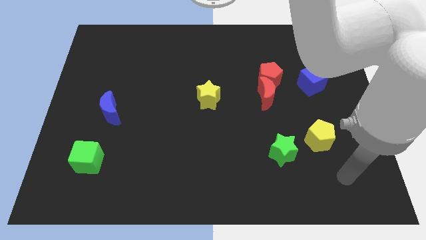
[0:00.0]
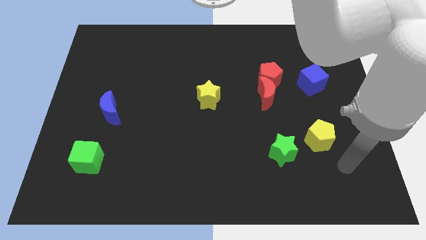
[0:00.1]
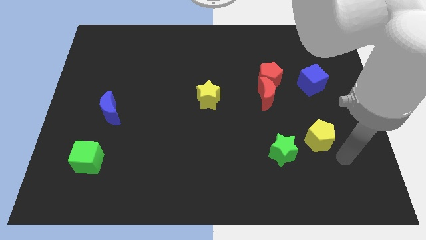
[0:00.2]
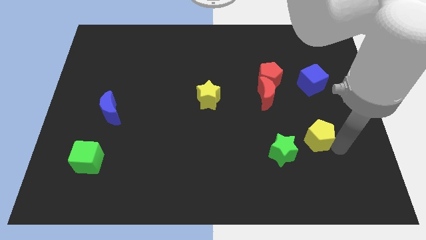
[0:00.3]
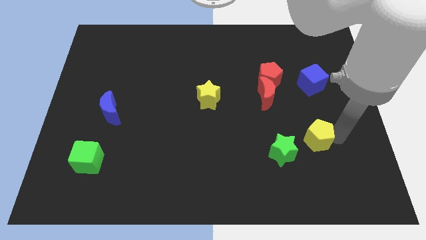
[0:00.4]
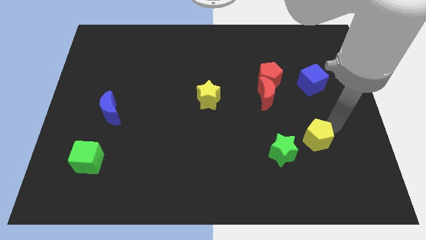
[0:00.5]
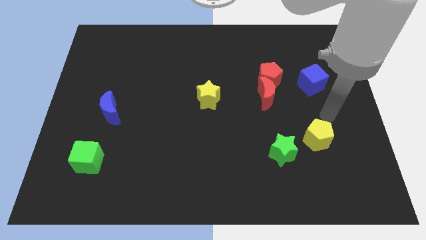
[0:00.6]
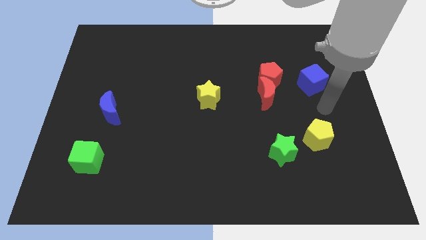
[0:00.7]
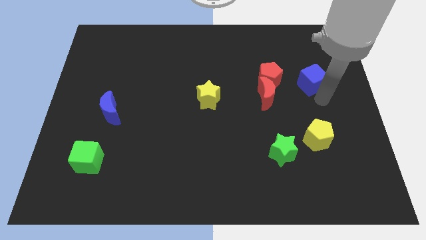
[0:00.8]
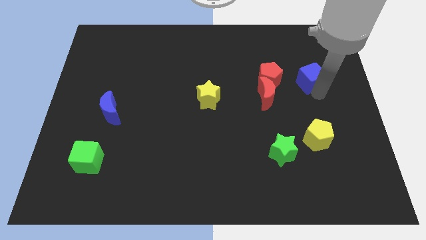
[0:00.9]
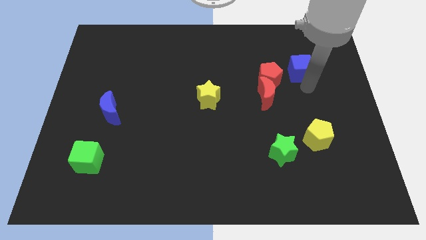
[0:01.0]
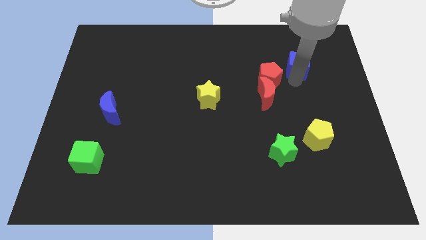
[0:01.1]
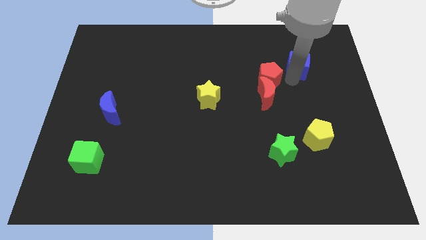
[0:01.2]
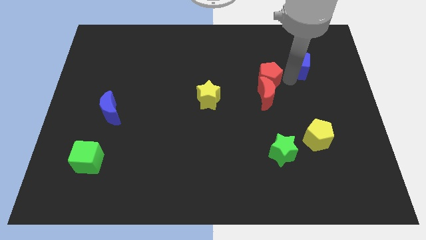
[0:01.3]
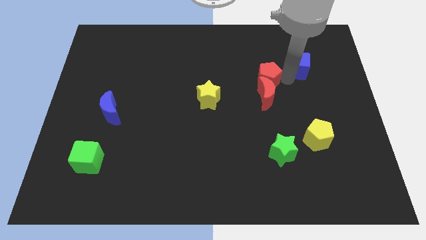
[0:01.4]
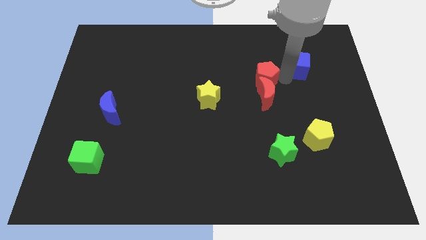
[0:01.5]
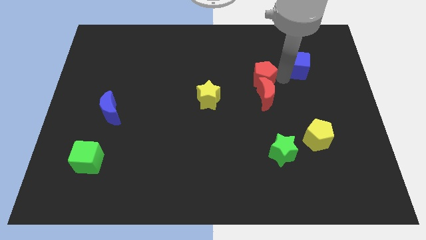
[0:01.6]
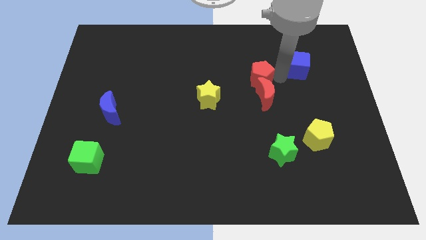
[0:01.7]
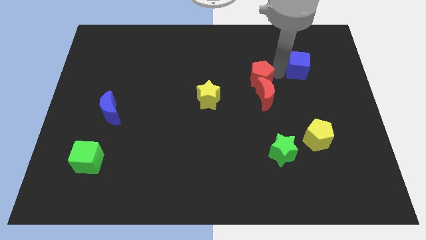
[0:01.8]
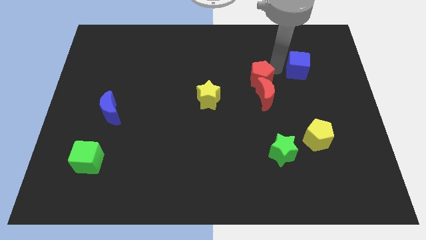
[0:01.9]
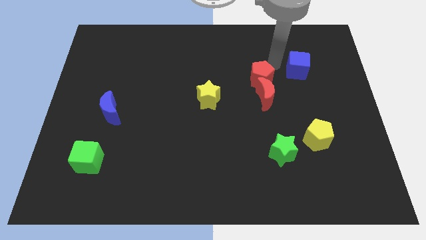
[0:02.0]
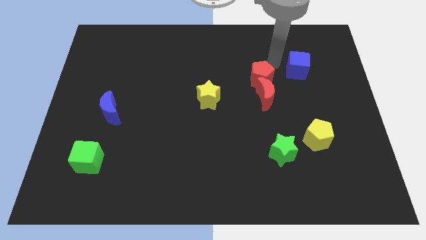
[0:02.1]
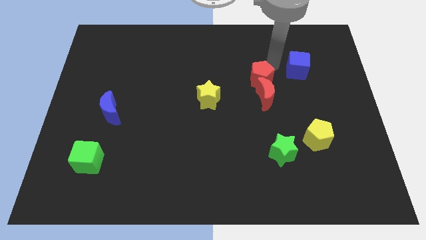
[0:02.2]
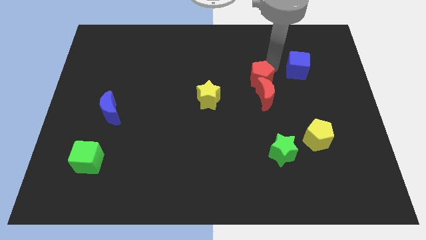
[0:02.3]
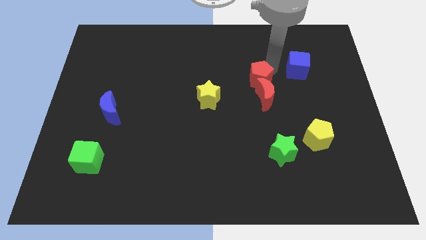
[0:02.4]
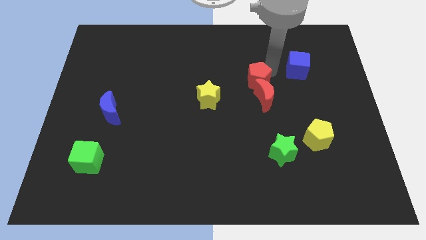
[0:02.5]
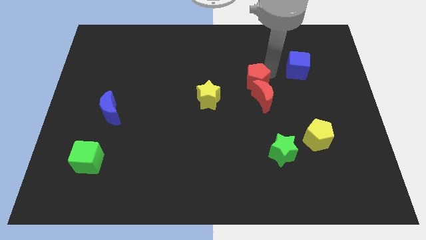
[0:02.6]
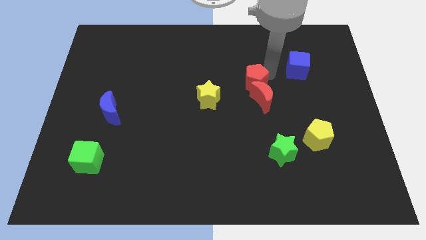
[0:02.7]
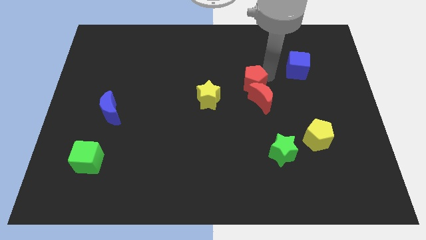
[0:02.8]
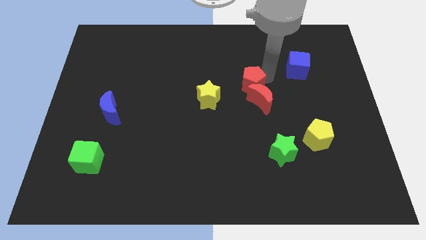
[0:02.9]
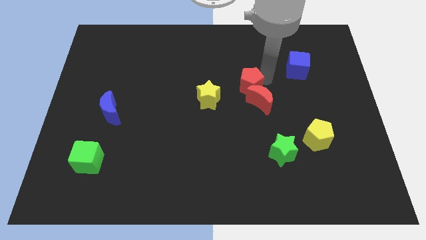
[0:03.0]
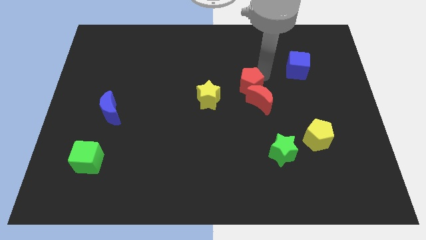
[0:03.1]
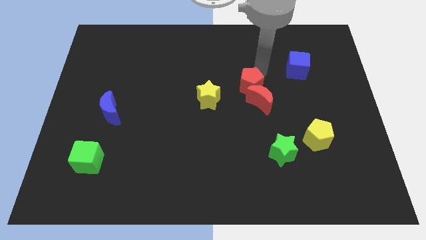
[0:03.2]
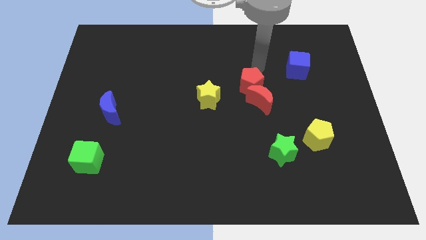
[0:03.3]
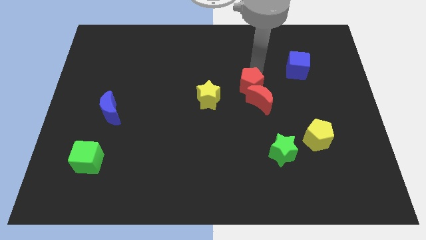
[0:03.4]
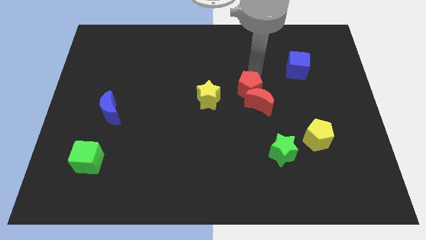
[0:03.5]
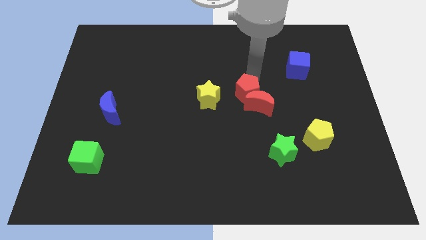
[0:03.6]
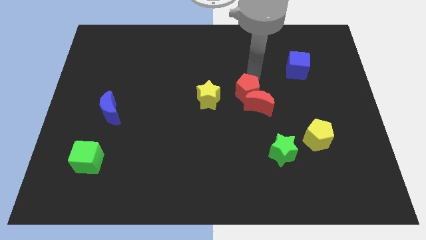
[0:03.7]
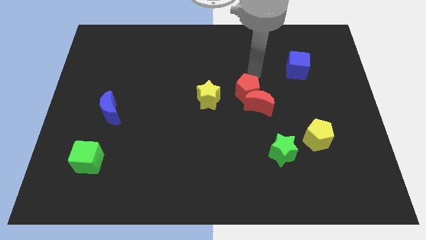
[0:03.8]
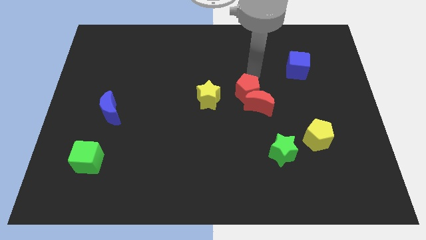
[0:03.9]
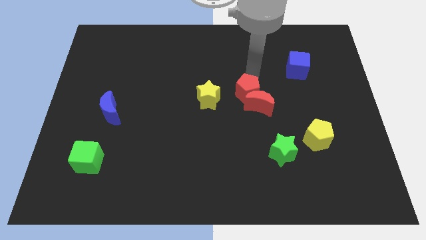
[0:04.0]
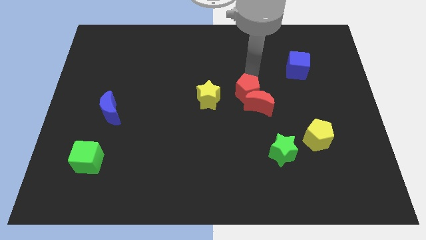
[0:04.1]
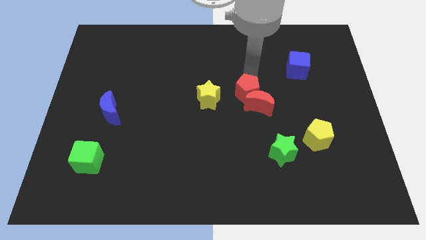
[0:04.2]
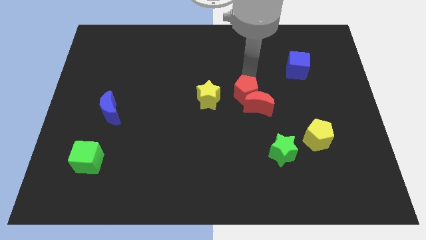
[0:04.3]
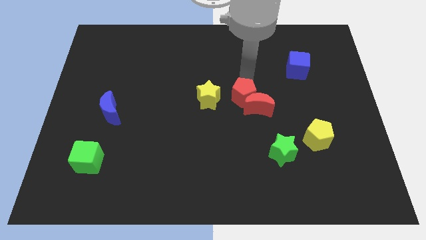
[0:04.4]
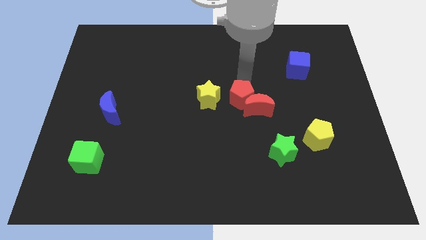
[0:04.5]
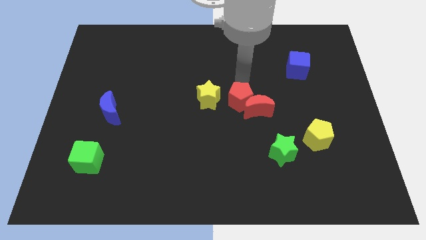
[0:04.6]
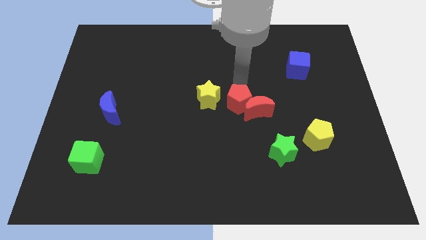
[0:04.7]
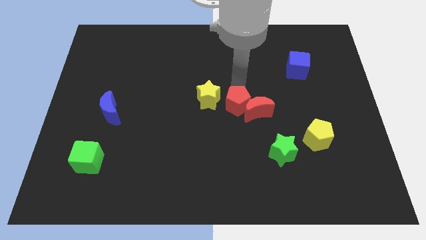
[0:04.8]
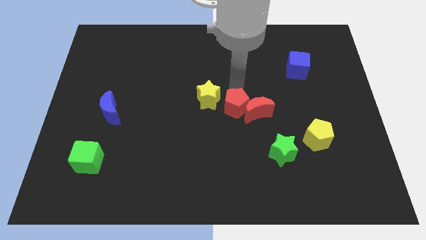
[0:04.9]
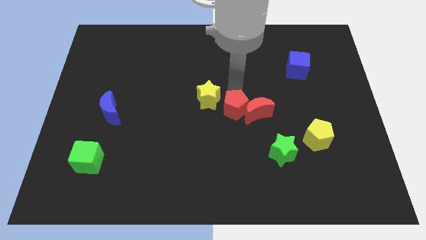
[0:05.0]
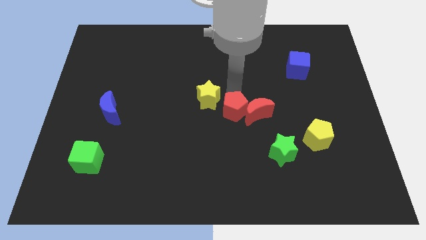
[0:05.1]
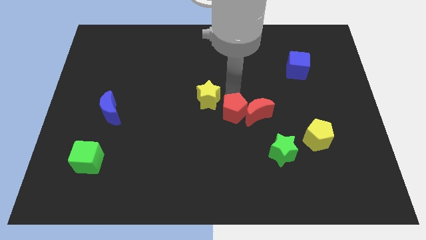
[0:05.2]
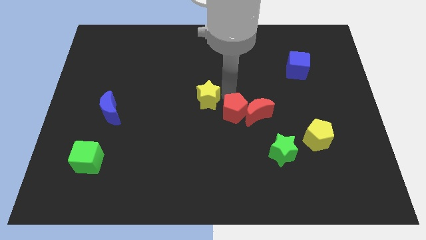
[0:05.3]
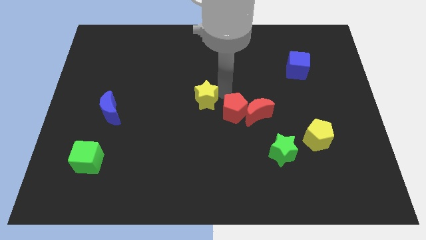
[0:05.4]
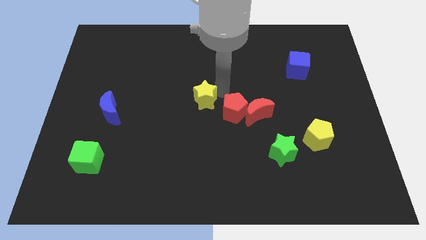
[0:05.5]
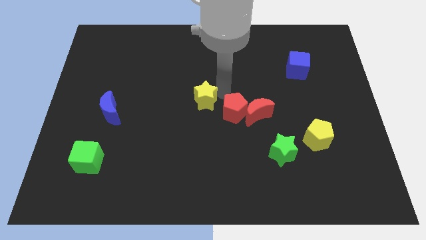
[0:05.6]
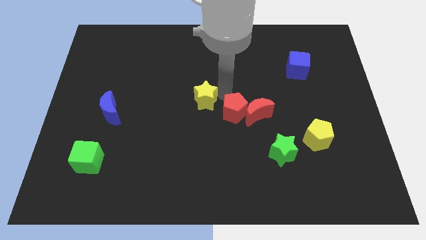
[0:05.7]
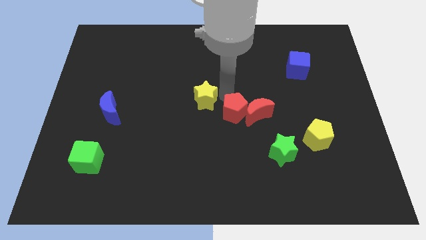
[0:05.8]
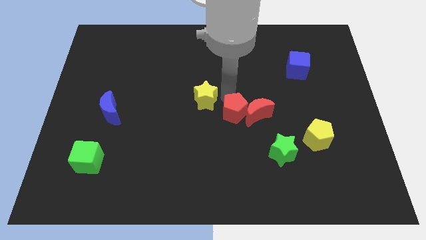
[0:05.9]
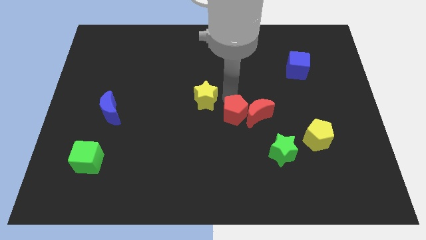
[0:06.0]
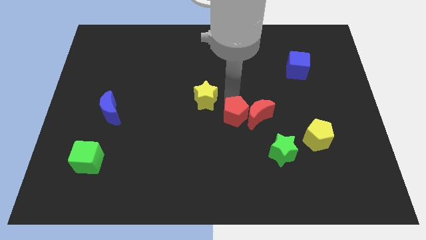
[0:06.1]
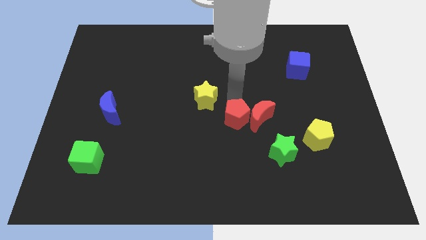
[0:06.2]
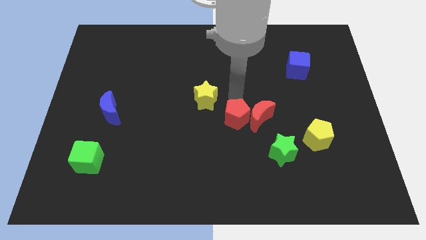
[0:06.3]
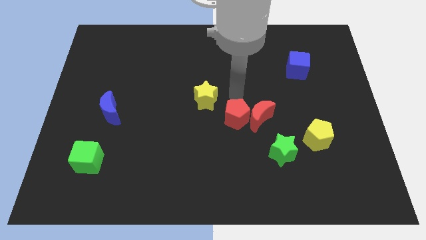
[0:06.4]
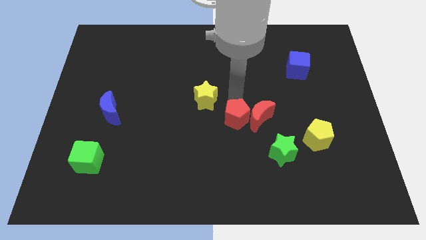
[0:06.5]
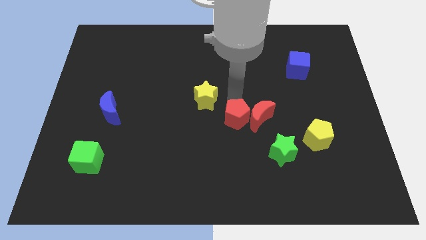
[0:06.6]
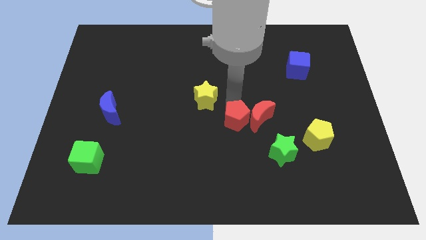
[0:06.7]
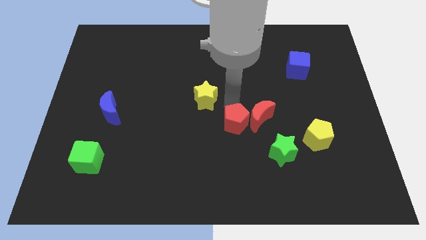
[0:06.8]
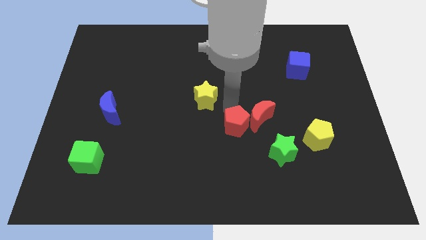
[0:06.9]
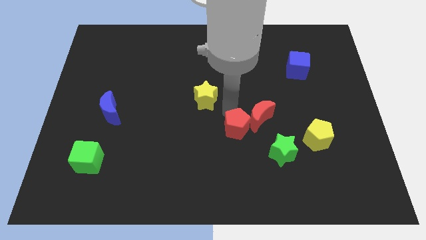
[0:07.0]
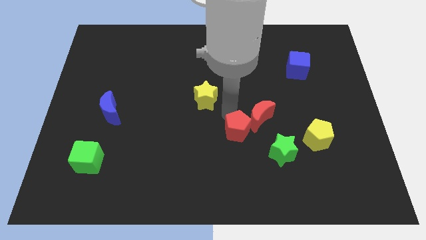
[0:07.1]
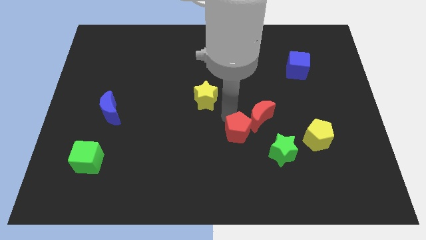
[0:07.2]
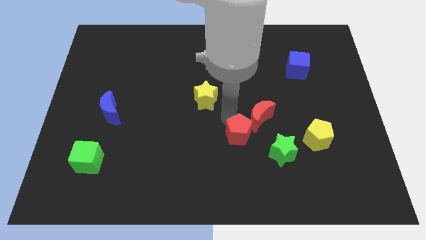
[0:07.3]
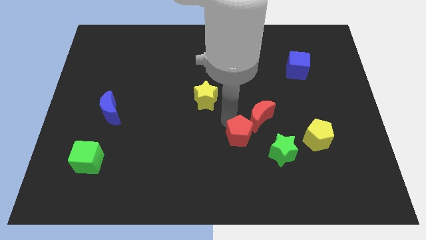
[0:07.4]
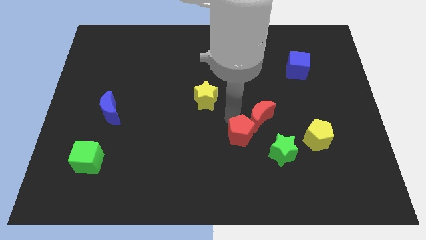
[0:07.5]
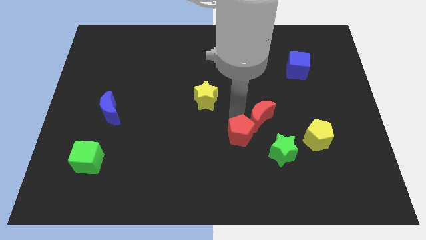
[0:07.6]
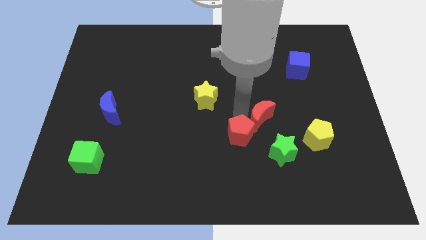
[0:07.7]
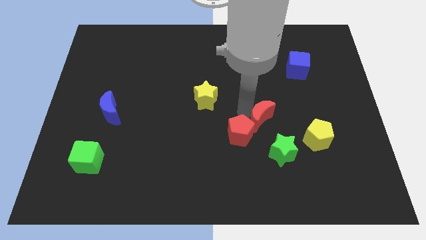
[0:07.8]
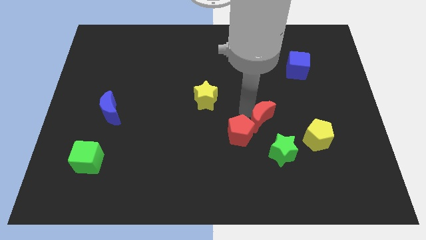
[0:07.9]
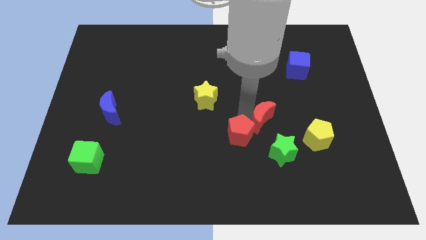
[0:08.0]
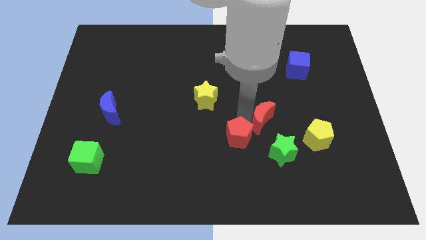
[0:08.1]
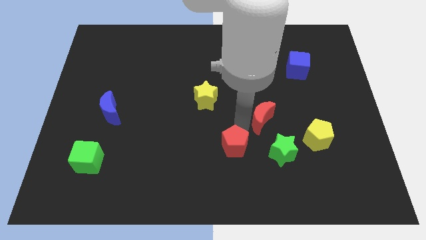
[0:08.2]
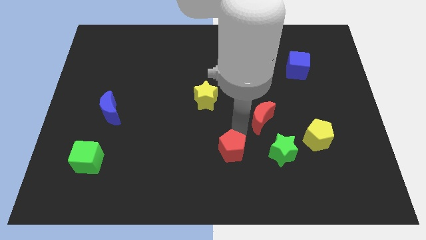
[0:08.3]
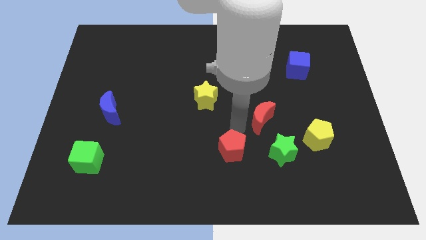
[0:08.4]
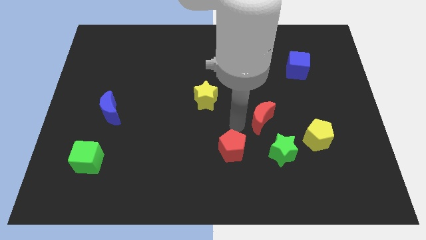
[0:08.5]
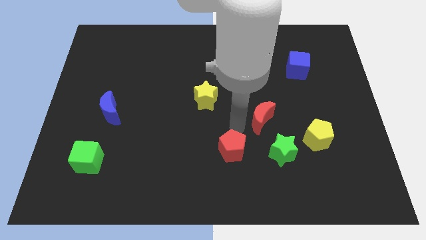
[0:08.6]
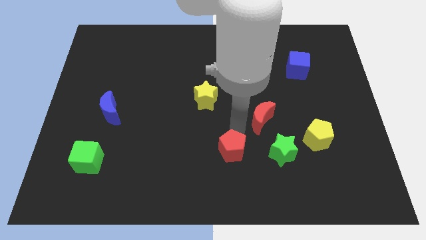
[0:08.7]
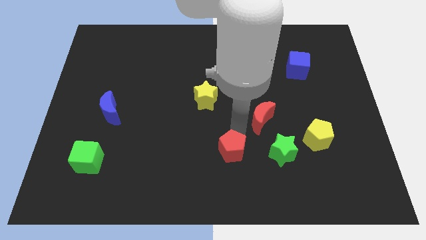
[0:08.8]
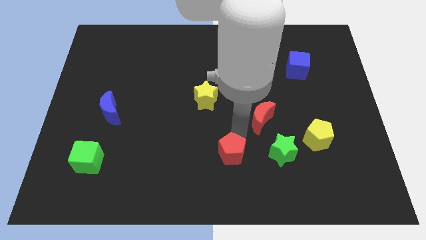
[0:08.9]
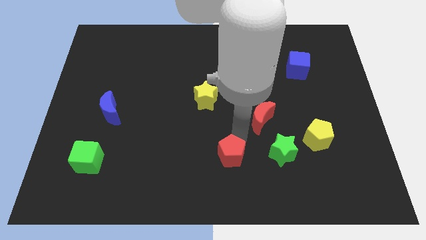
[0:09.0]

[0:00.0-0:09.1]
push the red pentagon to the bottom side
